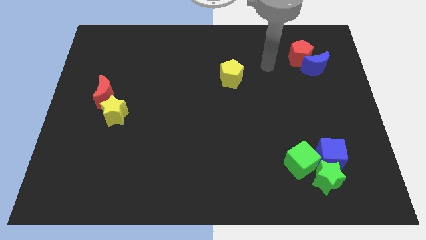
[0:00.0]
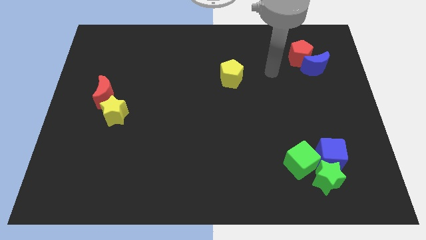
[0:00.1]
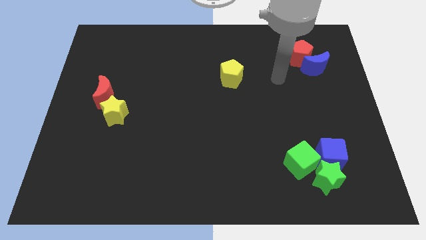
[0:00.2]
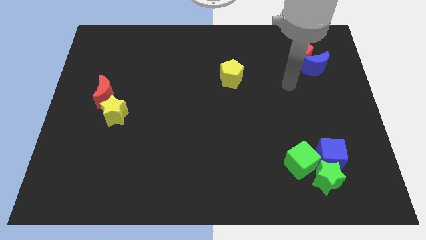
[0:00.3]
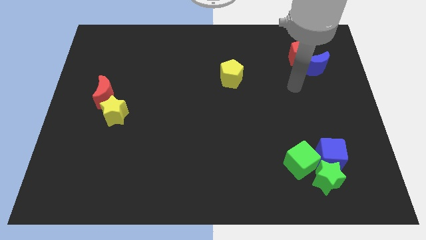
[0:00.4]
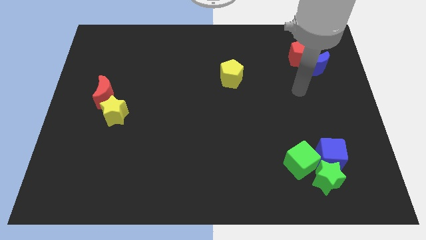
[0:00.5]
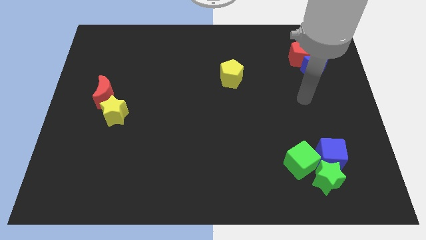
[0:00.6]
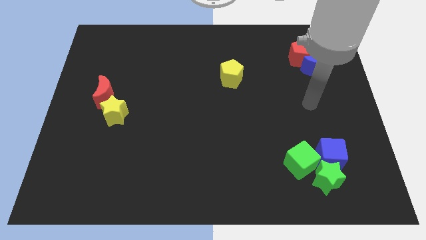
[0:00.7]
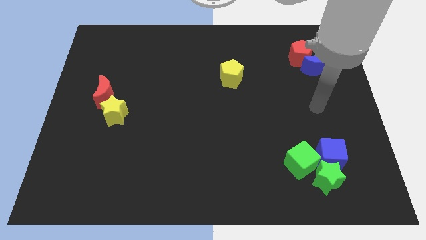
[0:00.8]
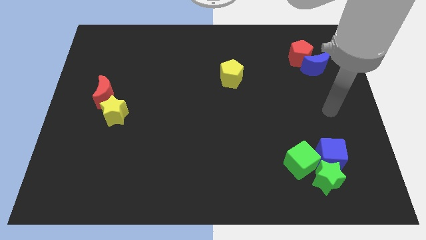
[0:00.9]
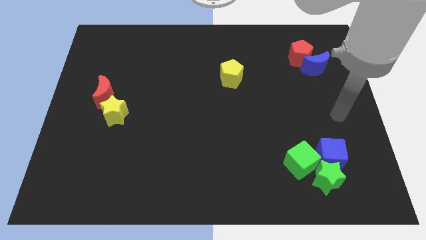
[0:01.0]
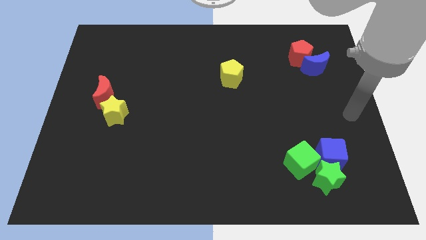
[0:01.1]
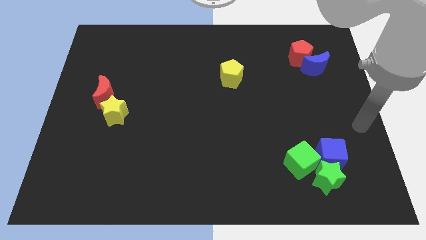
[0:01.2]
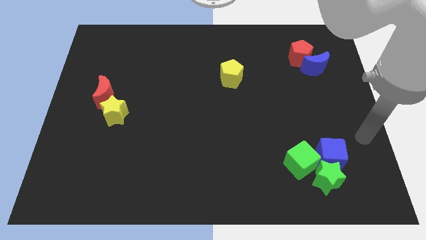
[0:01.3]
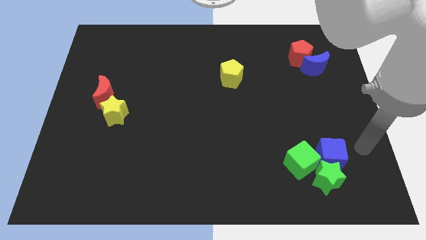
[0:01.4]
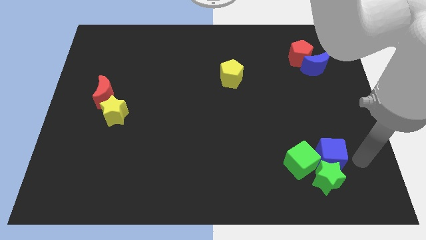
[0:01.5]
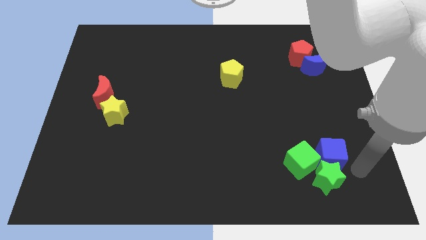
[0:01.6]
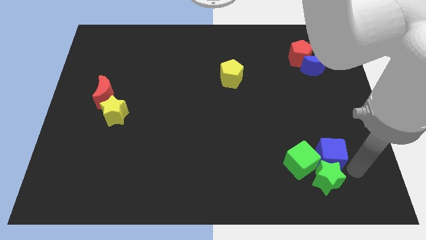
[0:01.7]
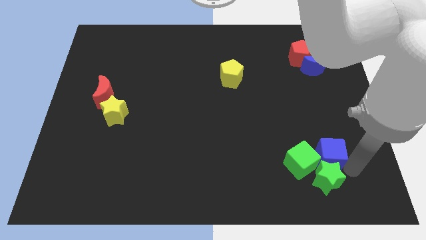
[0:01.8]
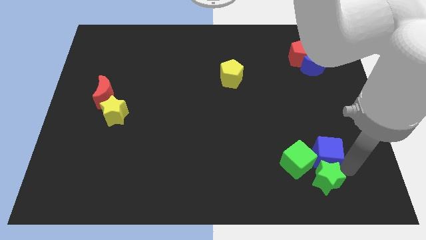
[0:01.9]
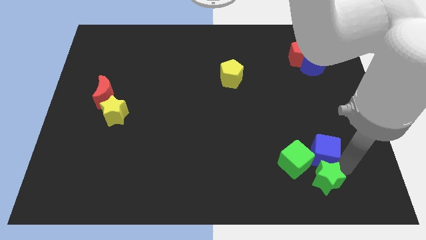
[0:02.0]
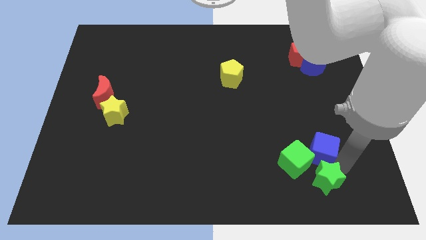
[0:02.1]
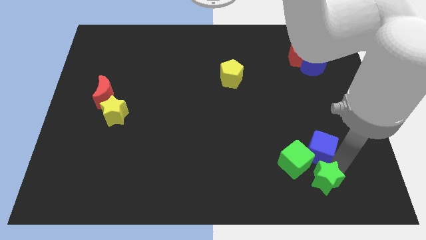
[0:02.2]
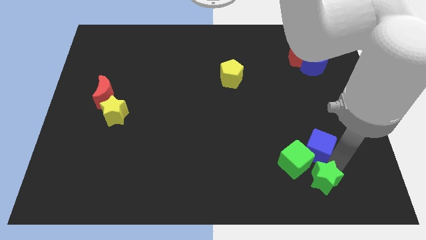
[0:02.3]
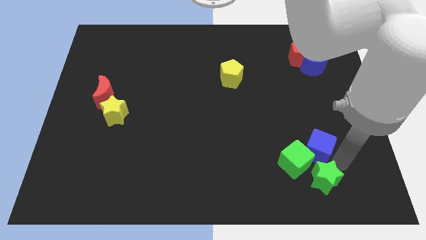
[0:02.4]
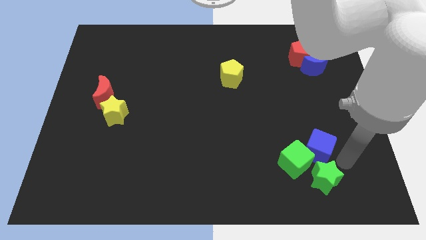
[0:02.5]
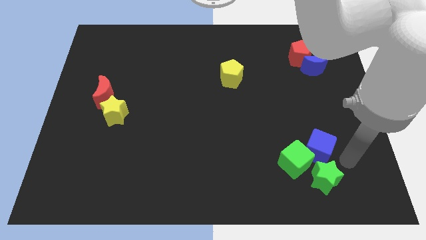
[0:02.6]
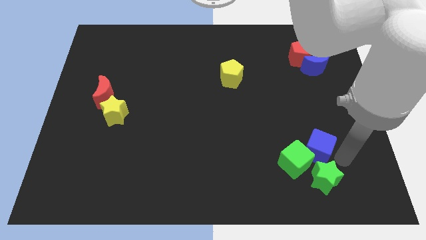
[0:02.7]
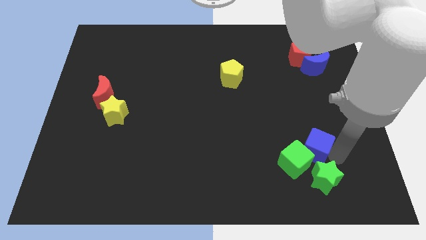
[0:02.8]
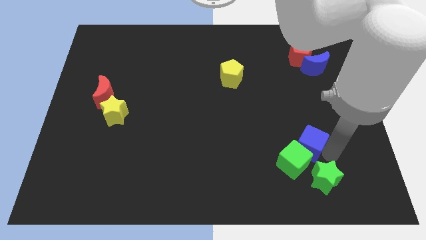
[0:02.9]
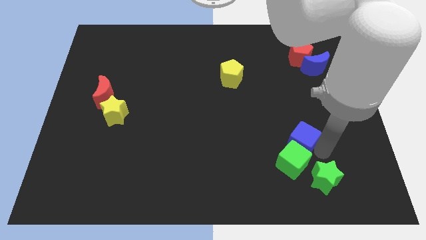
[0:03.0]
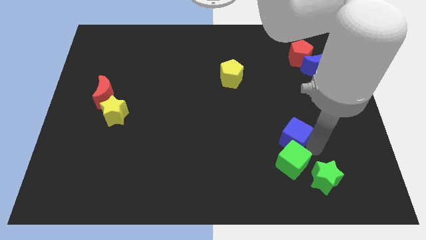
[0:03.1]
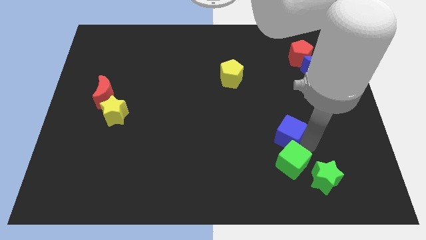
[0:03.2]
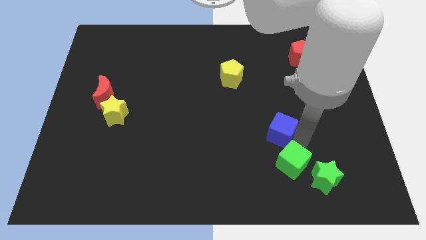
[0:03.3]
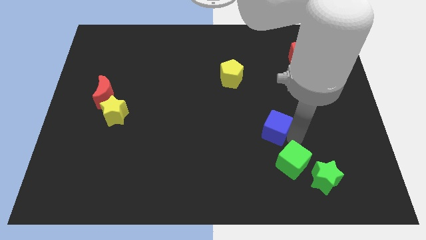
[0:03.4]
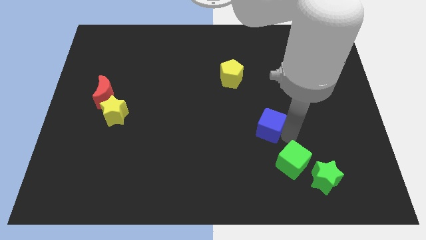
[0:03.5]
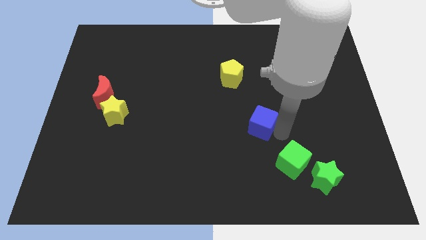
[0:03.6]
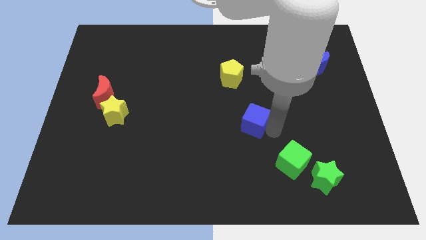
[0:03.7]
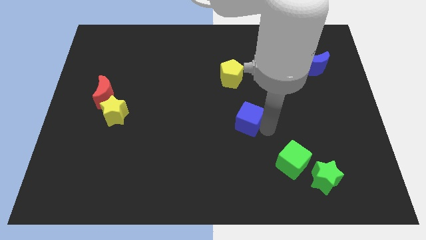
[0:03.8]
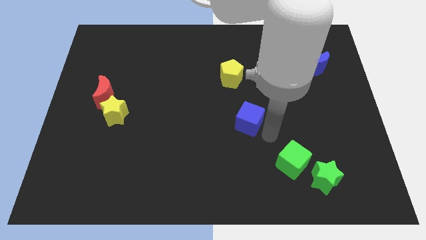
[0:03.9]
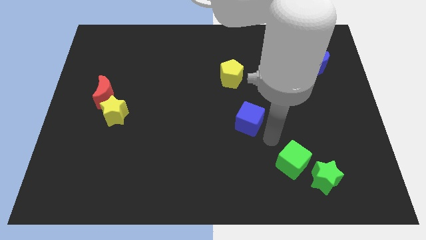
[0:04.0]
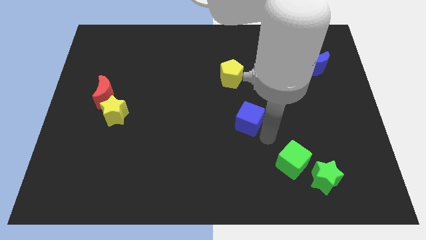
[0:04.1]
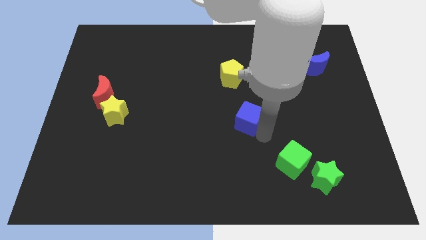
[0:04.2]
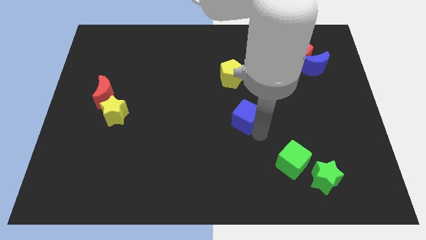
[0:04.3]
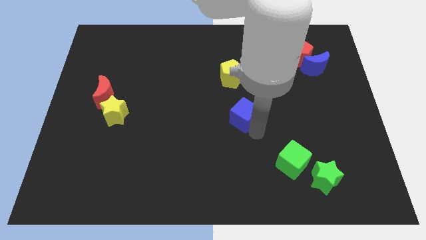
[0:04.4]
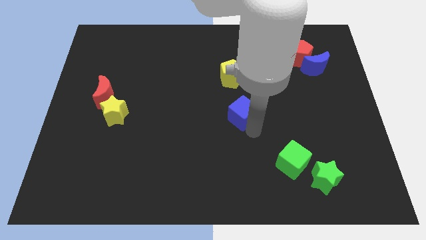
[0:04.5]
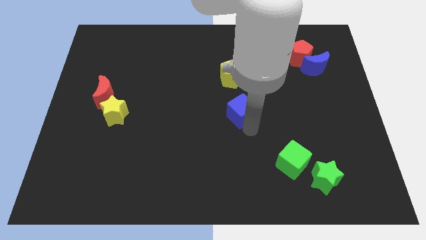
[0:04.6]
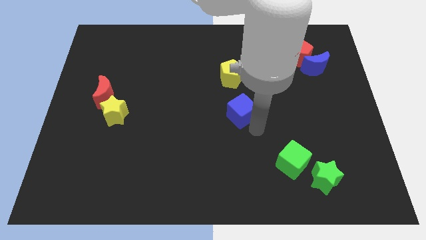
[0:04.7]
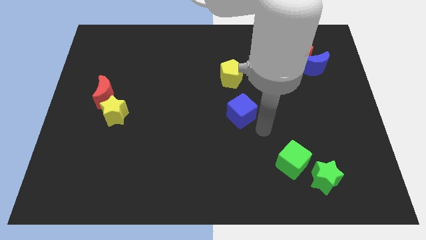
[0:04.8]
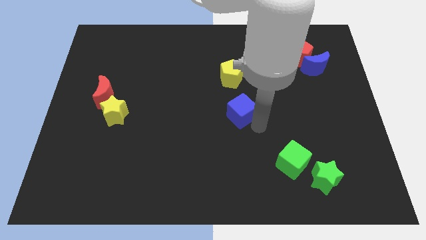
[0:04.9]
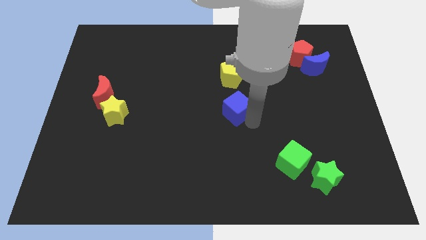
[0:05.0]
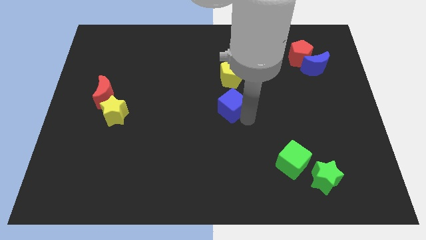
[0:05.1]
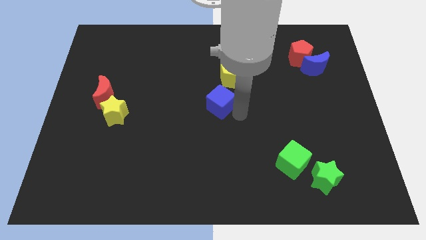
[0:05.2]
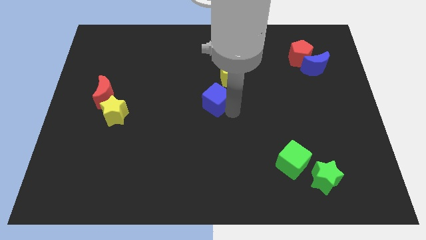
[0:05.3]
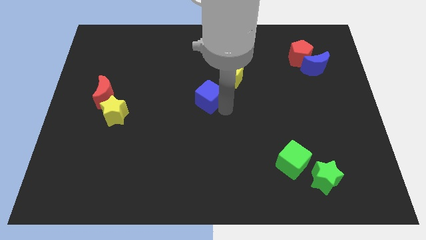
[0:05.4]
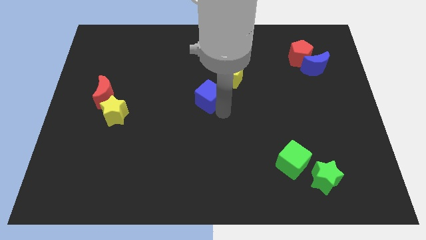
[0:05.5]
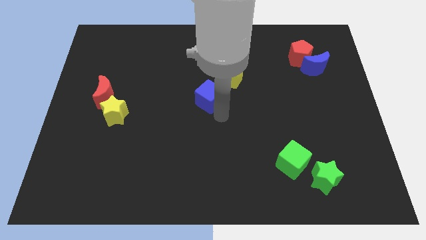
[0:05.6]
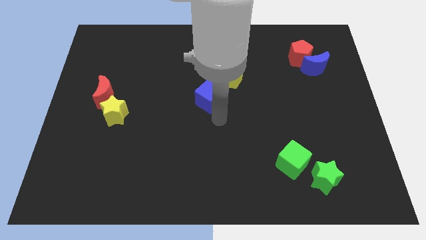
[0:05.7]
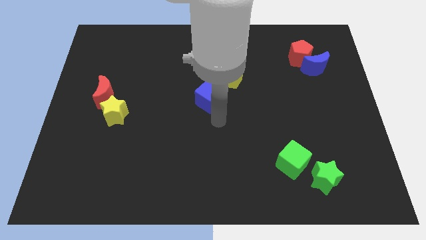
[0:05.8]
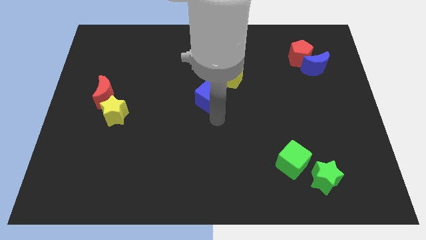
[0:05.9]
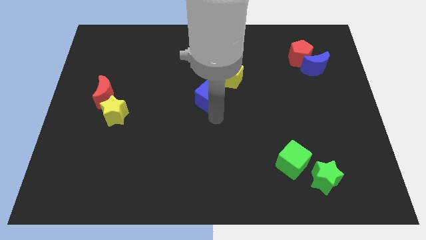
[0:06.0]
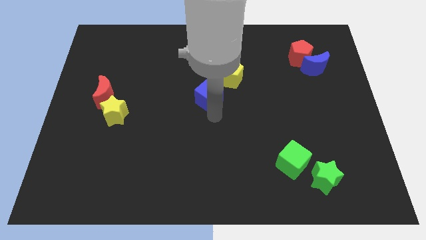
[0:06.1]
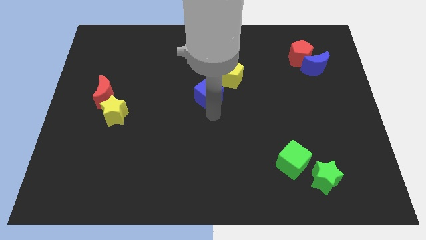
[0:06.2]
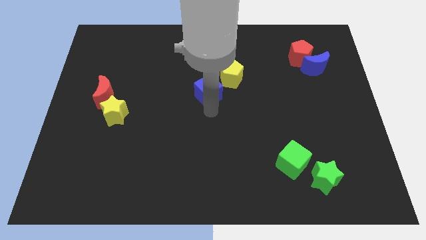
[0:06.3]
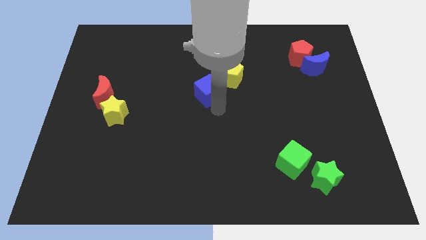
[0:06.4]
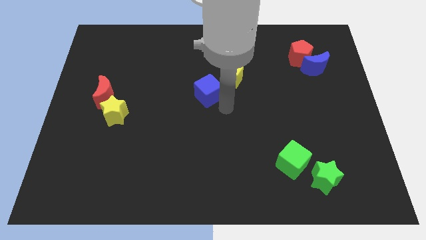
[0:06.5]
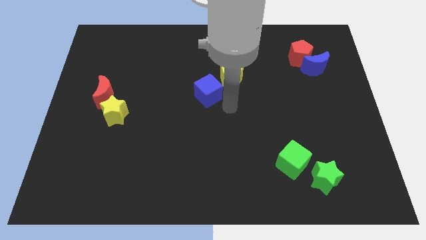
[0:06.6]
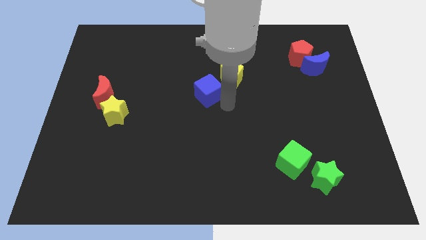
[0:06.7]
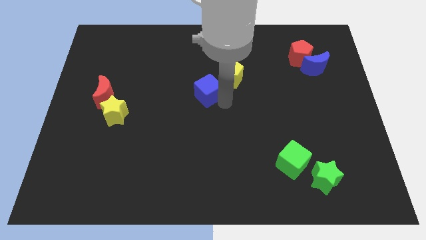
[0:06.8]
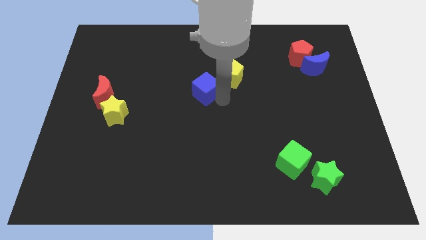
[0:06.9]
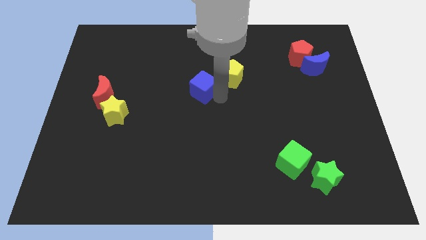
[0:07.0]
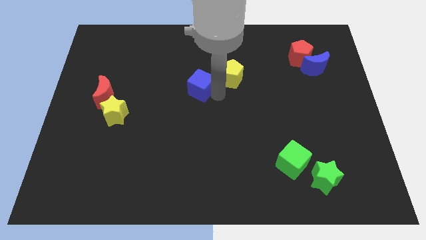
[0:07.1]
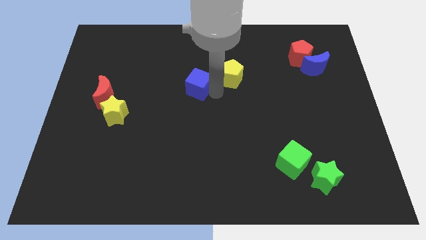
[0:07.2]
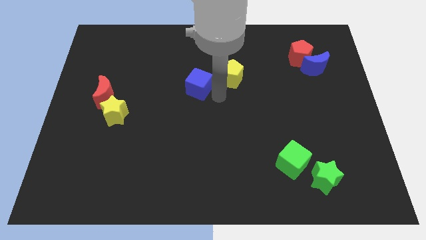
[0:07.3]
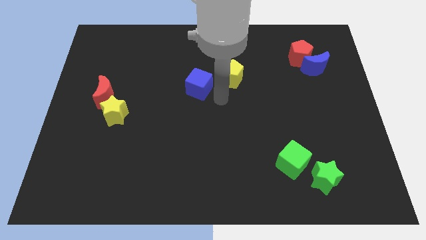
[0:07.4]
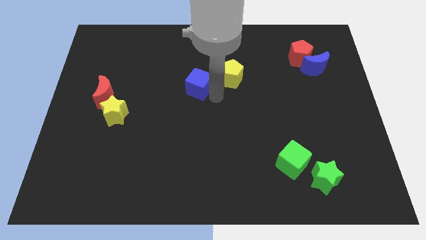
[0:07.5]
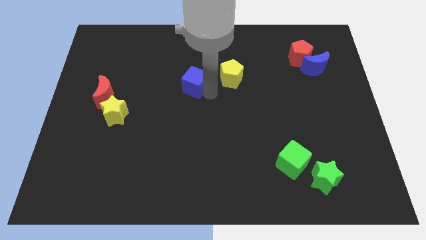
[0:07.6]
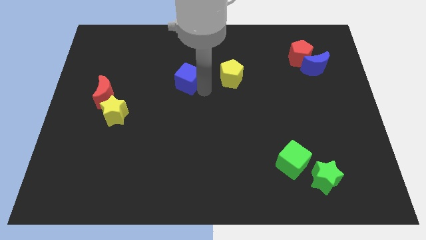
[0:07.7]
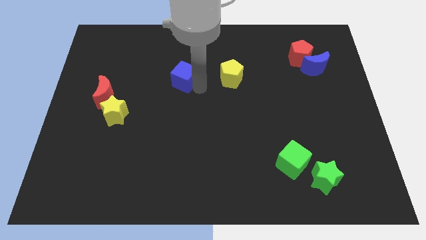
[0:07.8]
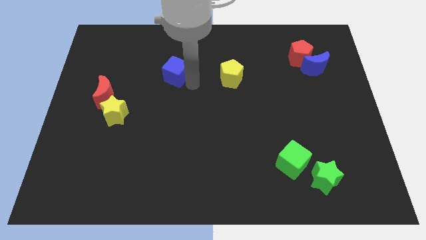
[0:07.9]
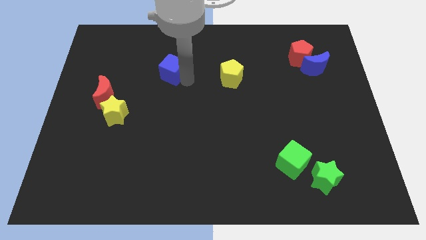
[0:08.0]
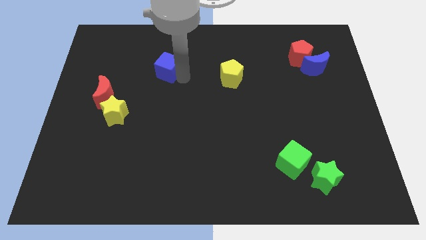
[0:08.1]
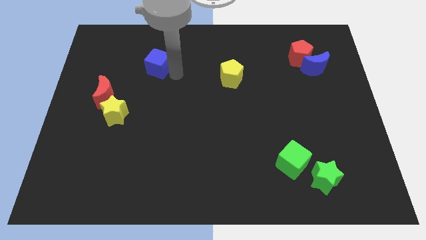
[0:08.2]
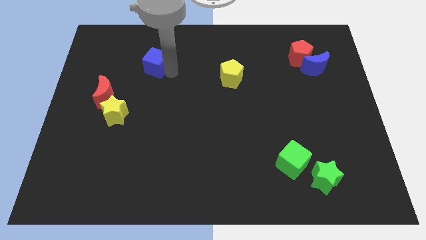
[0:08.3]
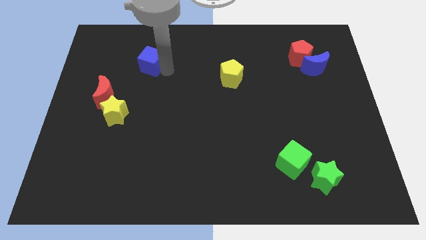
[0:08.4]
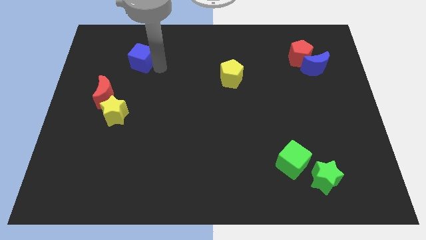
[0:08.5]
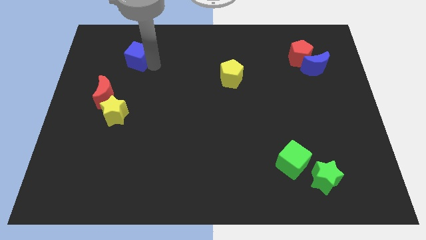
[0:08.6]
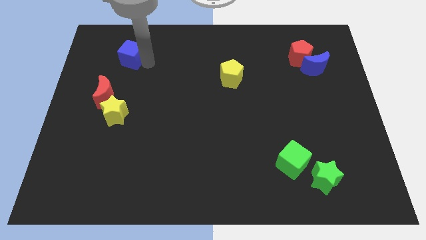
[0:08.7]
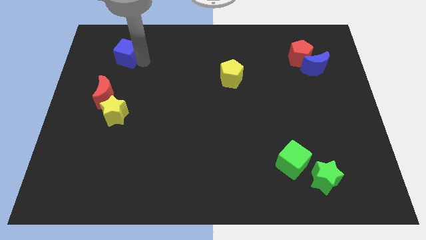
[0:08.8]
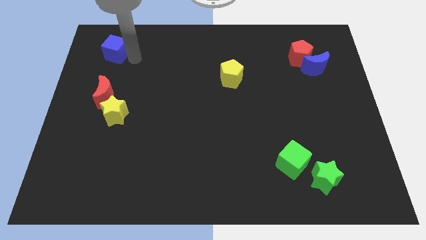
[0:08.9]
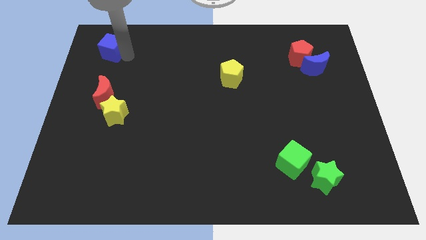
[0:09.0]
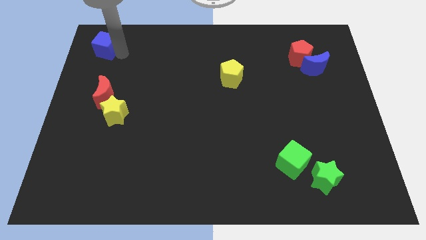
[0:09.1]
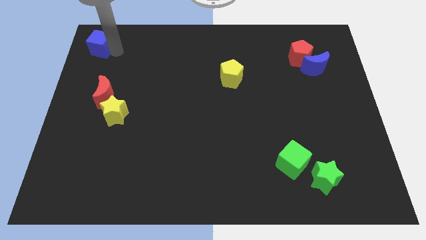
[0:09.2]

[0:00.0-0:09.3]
push the blue cube to the top left
